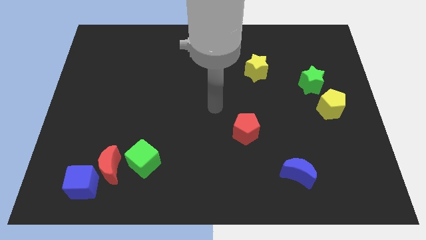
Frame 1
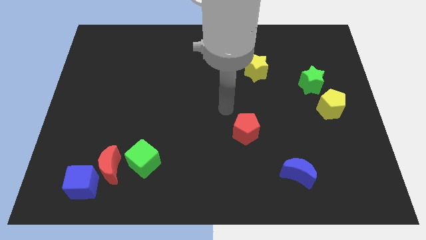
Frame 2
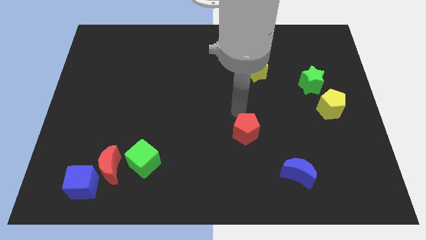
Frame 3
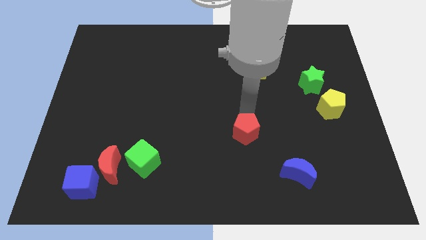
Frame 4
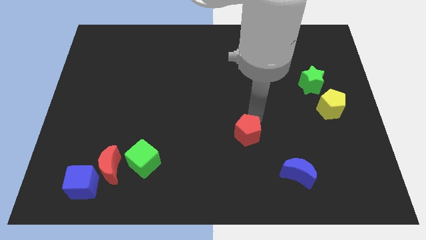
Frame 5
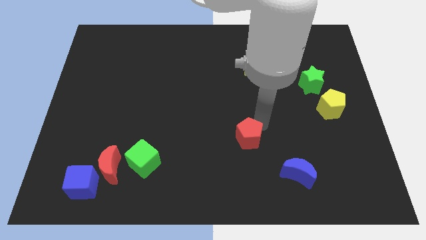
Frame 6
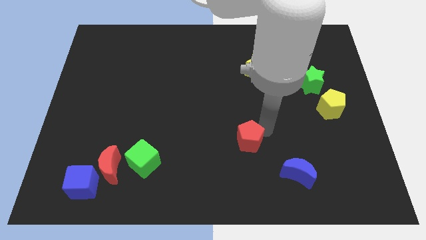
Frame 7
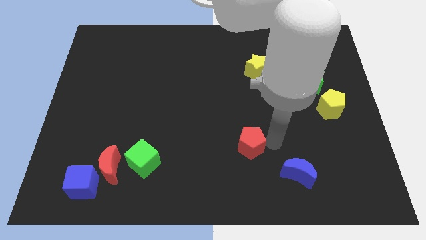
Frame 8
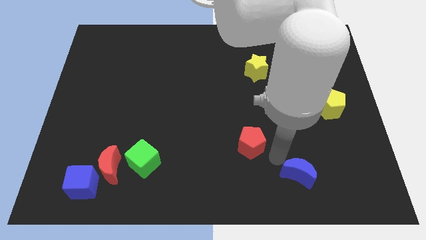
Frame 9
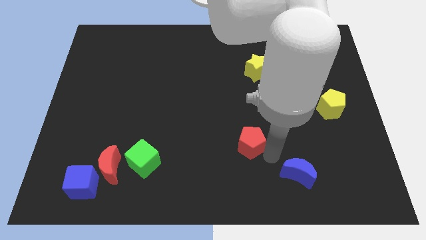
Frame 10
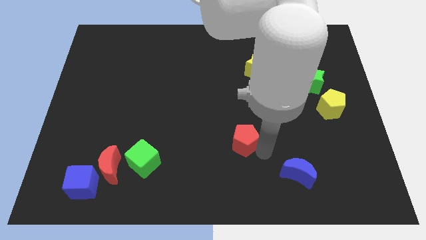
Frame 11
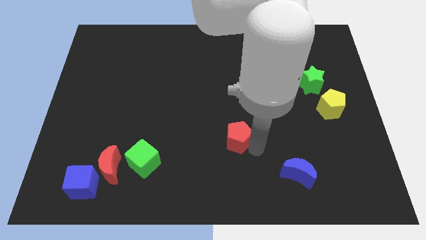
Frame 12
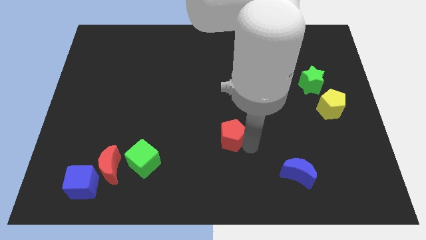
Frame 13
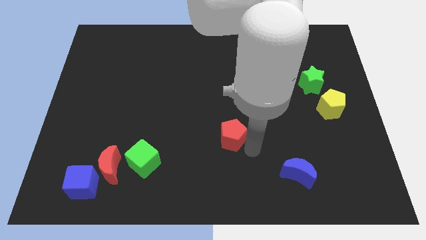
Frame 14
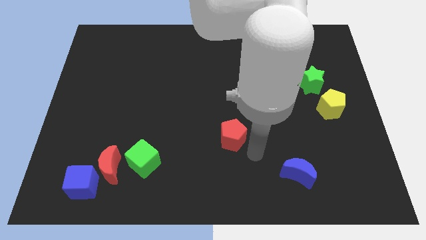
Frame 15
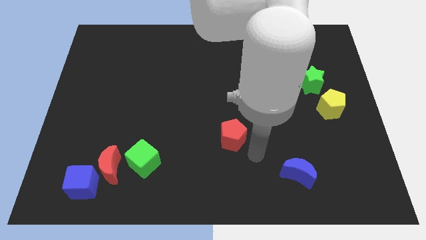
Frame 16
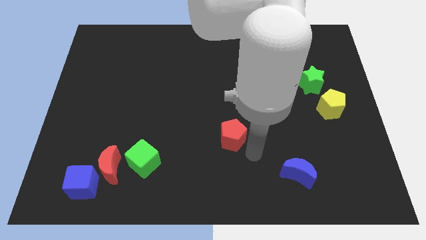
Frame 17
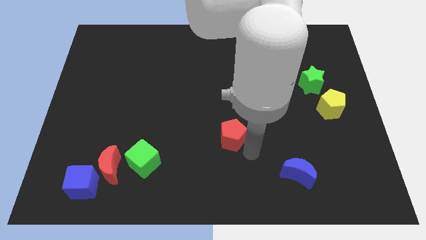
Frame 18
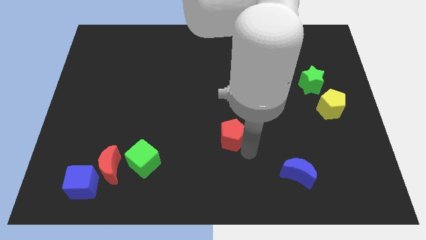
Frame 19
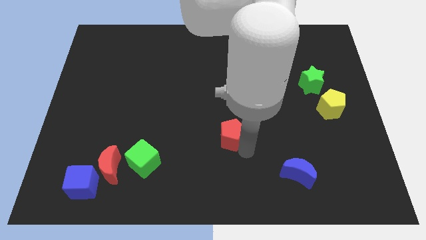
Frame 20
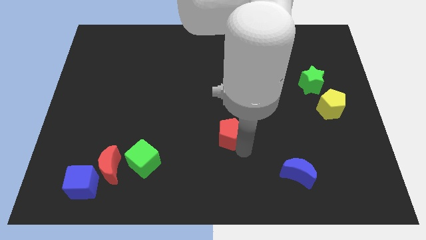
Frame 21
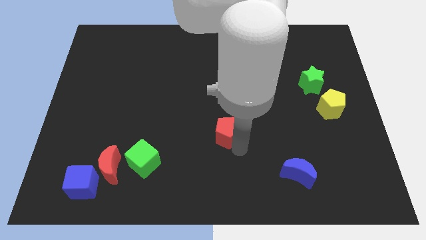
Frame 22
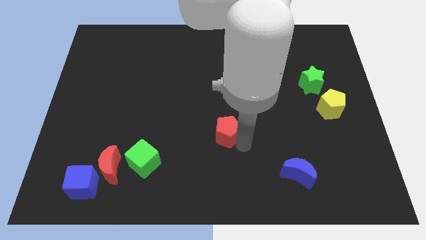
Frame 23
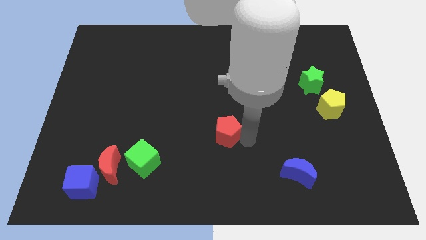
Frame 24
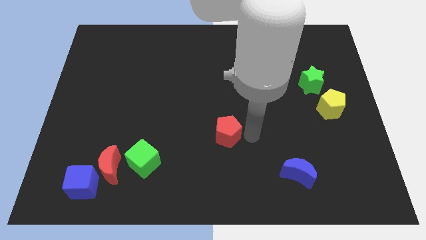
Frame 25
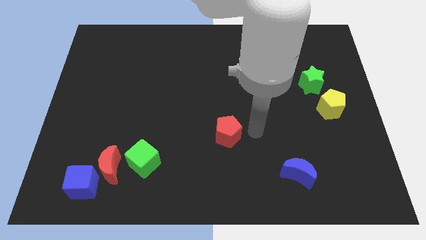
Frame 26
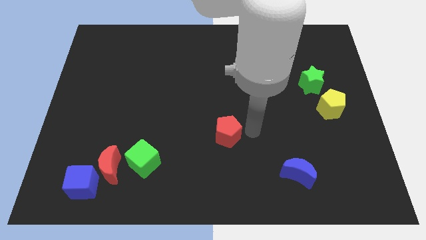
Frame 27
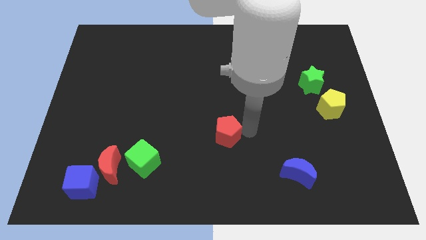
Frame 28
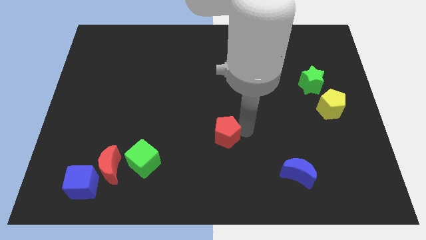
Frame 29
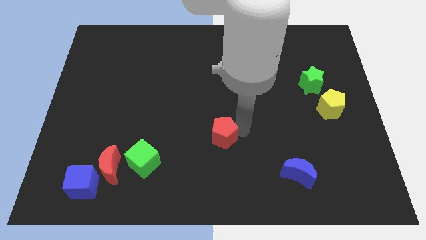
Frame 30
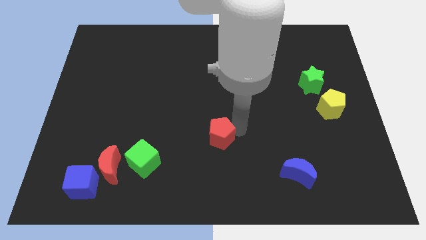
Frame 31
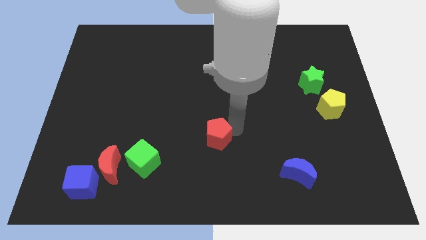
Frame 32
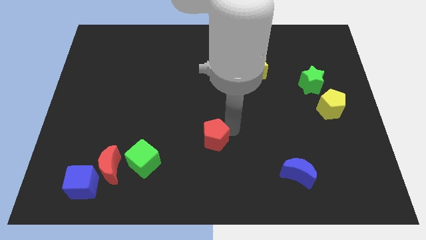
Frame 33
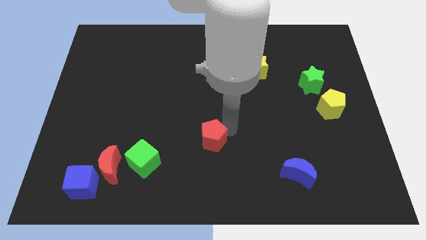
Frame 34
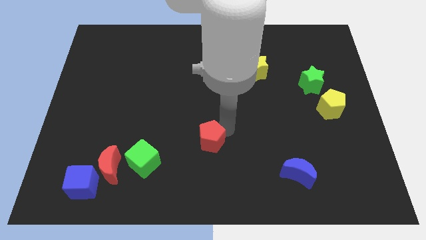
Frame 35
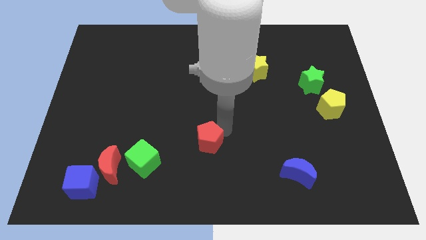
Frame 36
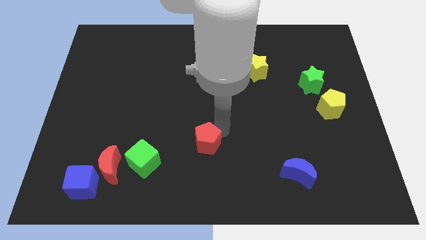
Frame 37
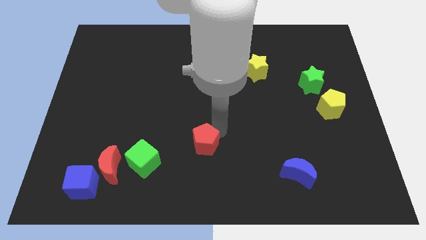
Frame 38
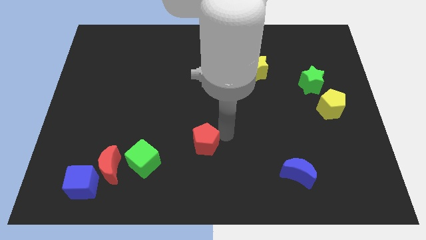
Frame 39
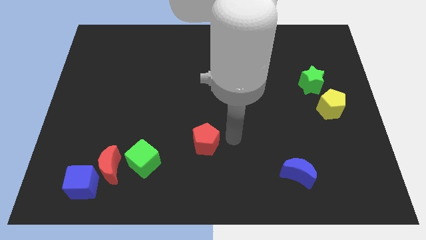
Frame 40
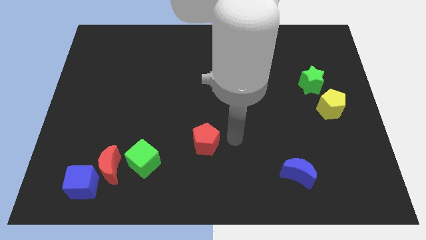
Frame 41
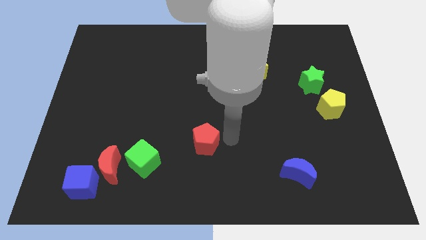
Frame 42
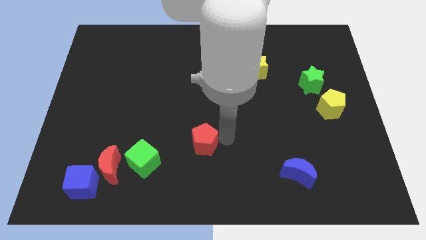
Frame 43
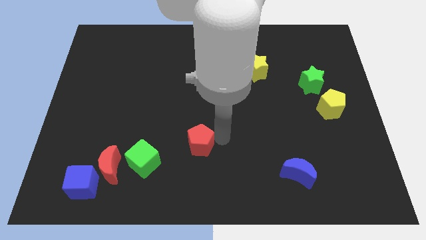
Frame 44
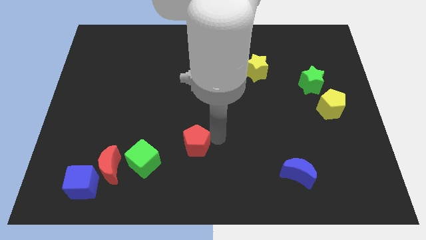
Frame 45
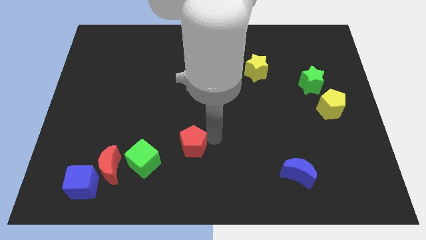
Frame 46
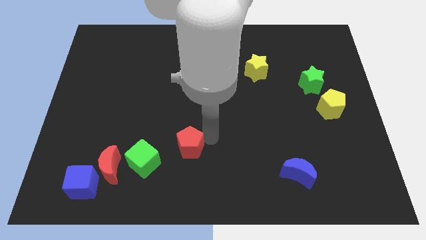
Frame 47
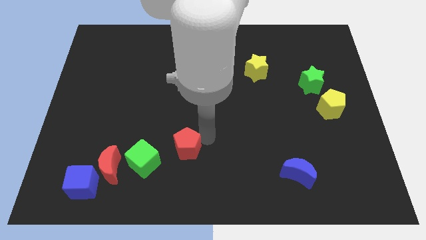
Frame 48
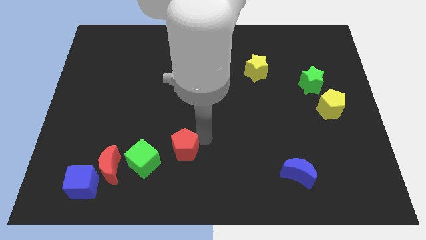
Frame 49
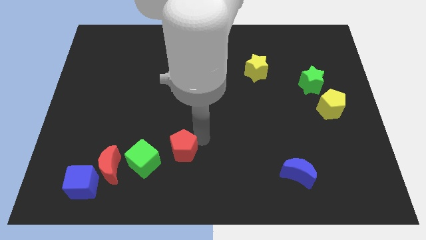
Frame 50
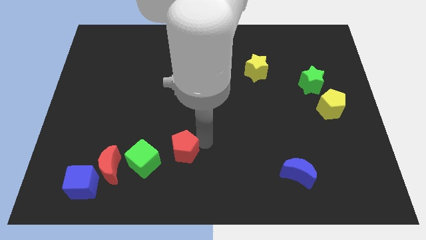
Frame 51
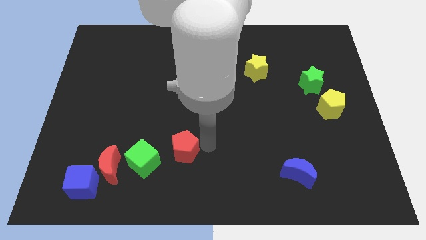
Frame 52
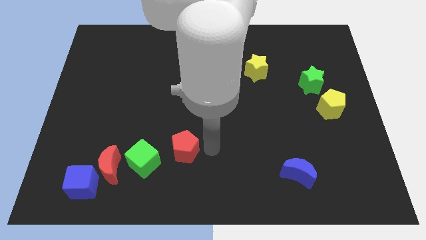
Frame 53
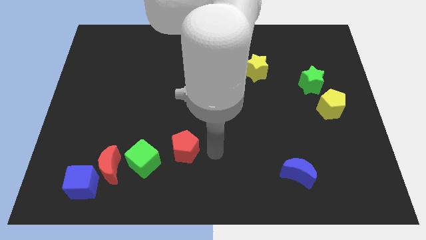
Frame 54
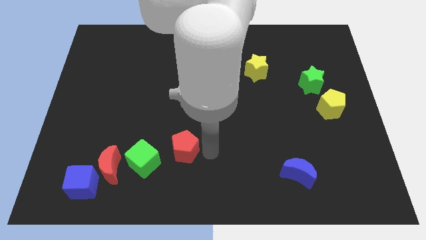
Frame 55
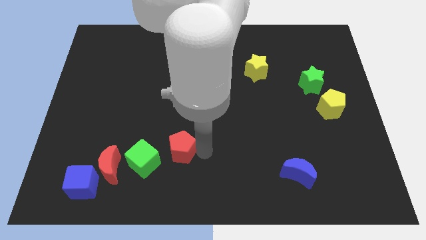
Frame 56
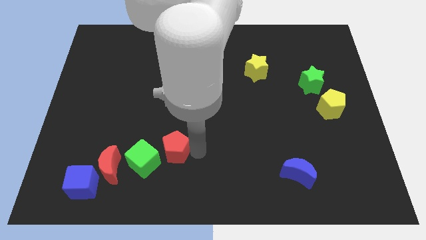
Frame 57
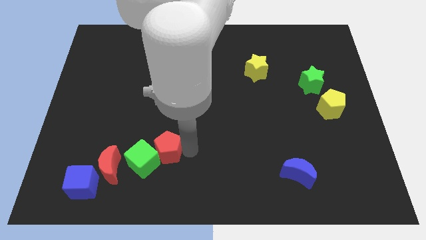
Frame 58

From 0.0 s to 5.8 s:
put the red pentagon close to the green cube

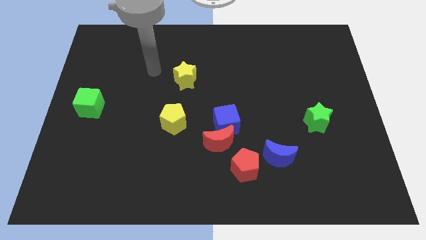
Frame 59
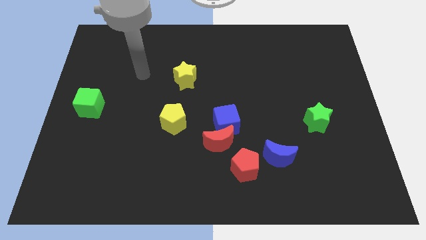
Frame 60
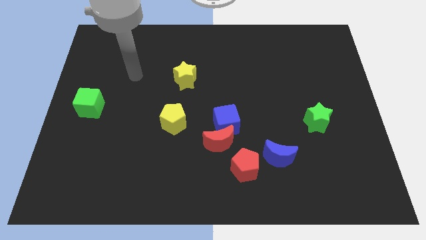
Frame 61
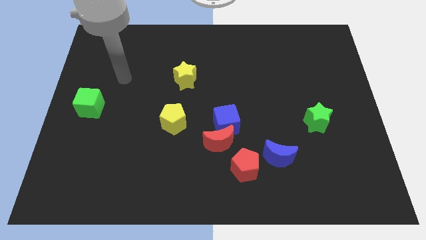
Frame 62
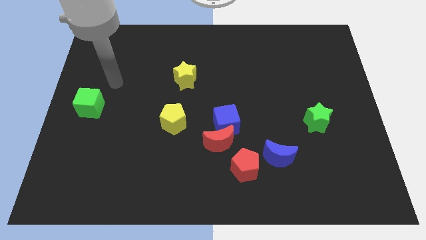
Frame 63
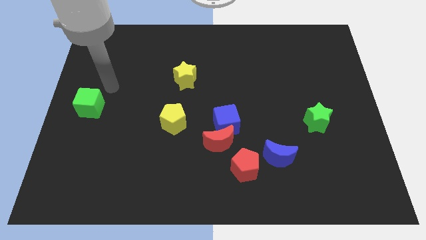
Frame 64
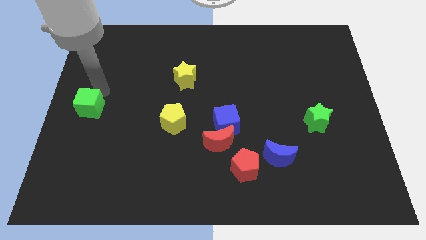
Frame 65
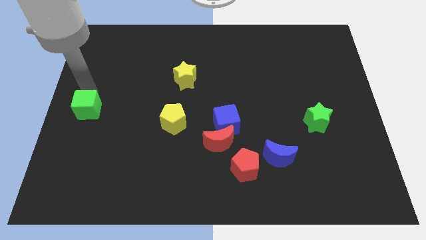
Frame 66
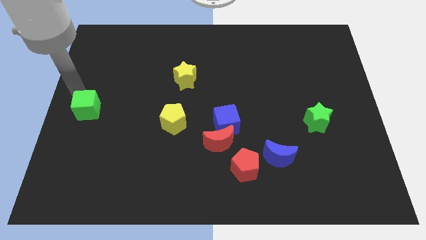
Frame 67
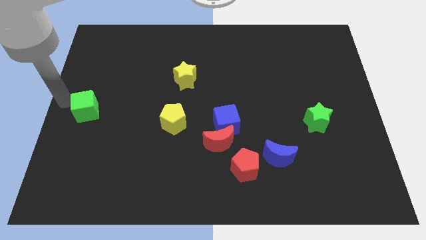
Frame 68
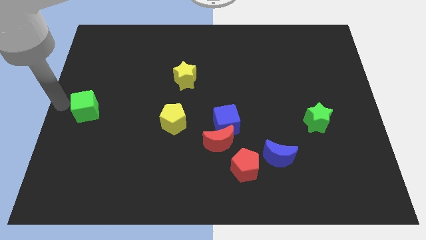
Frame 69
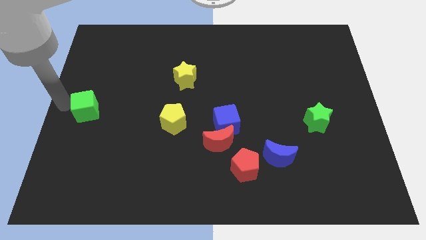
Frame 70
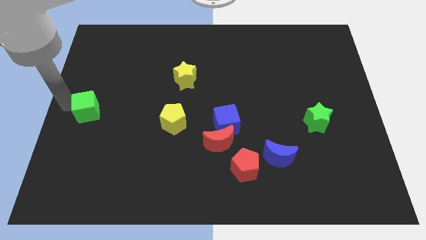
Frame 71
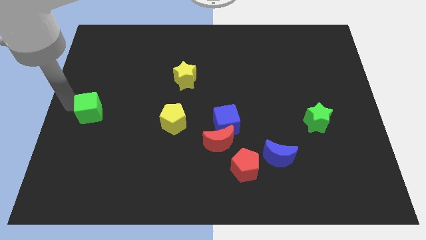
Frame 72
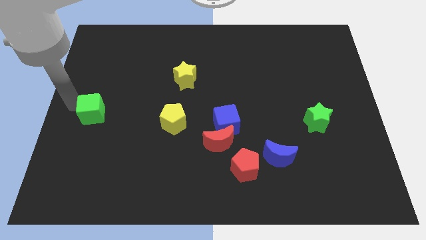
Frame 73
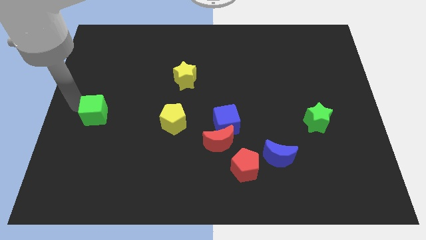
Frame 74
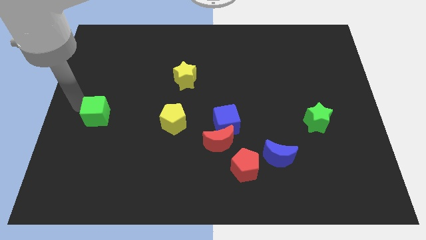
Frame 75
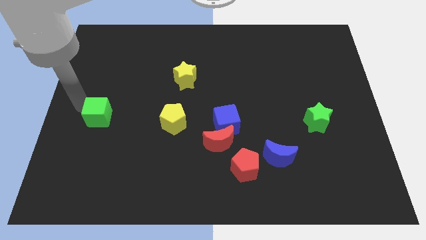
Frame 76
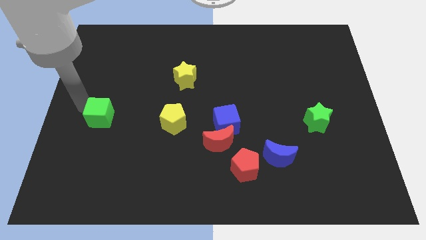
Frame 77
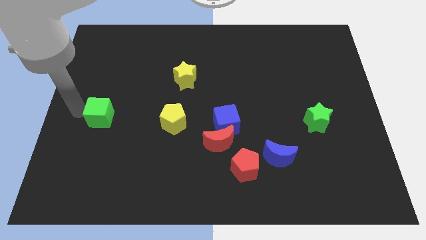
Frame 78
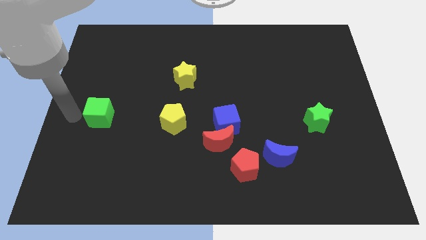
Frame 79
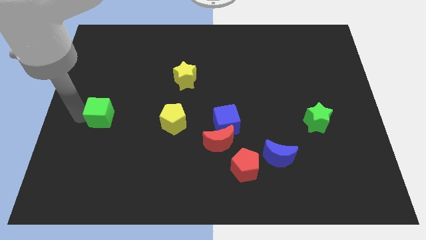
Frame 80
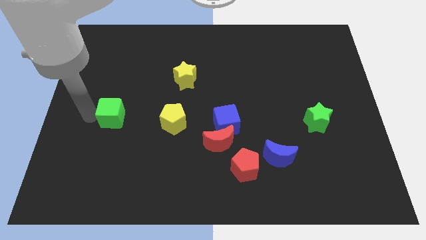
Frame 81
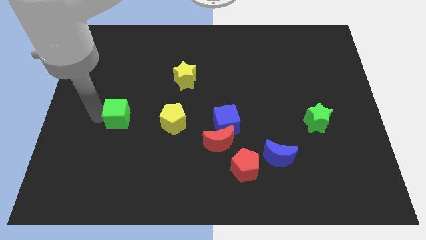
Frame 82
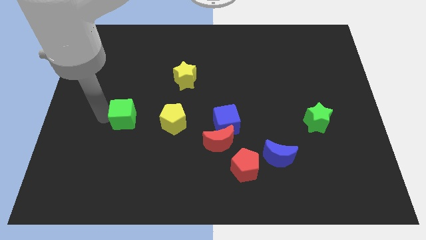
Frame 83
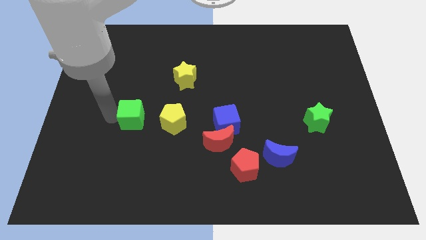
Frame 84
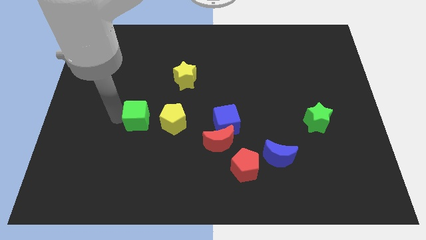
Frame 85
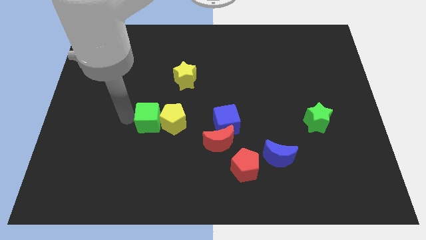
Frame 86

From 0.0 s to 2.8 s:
slide the green cube next to the yellow pentagon
